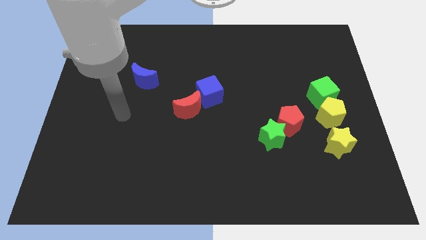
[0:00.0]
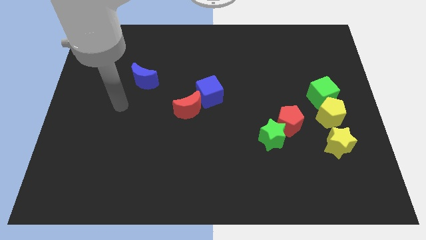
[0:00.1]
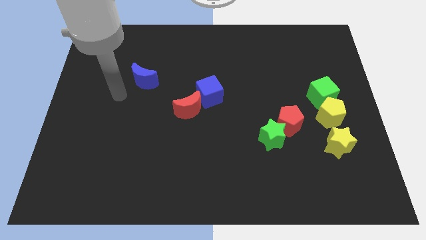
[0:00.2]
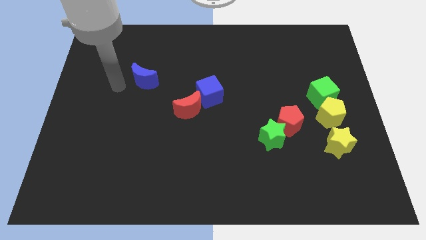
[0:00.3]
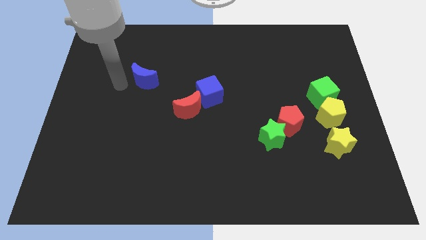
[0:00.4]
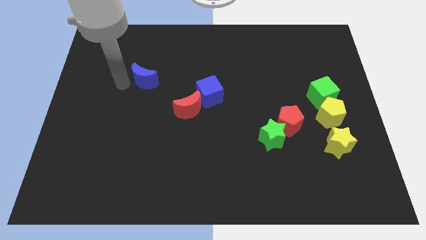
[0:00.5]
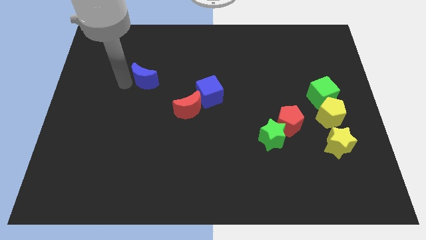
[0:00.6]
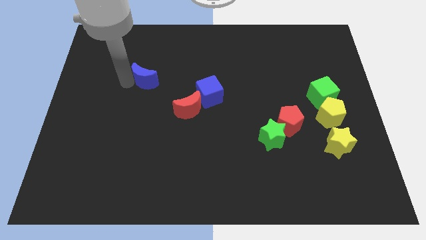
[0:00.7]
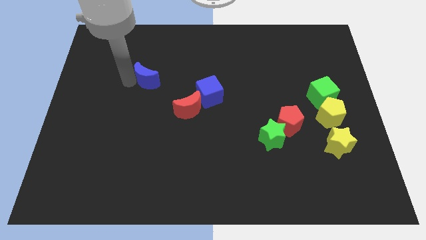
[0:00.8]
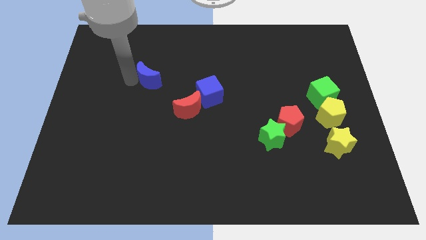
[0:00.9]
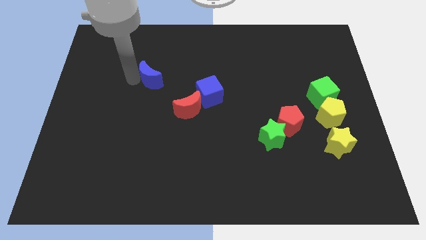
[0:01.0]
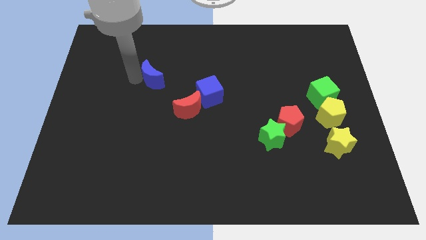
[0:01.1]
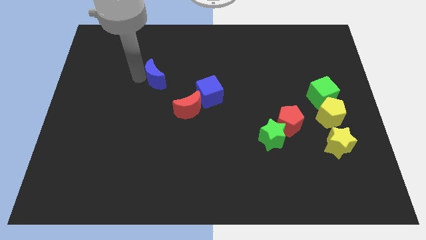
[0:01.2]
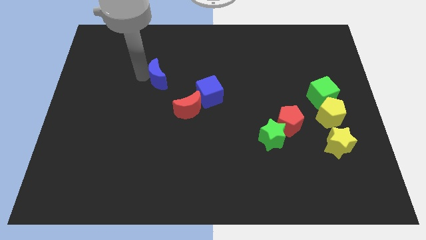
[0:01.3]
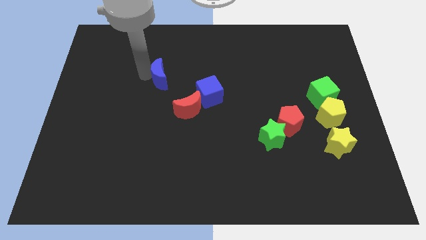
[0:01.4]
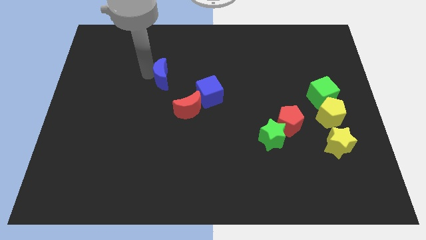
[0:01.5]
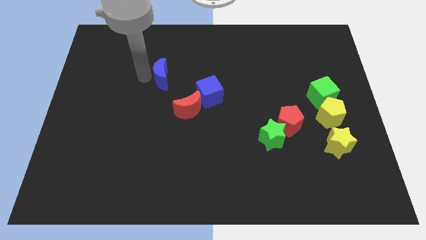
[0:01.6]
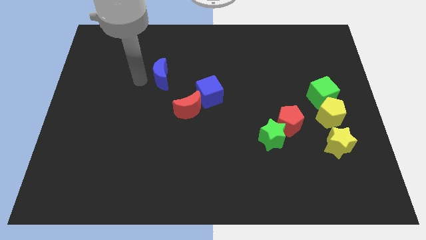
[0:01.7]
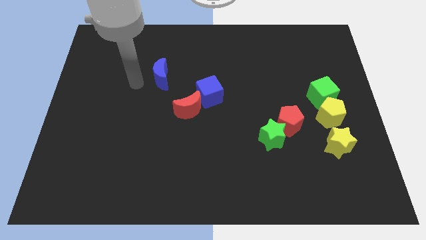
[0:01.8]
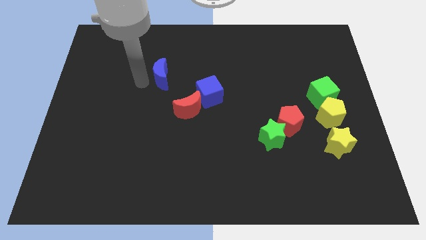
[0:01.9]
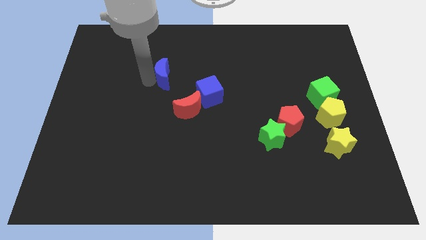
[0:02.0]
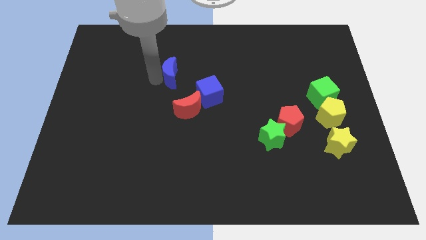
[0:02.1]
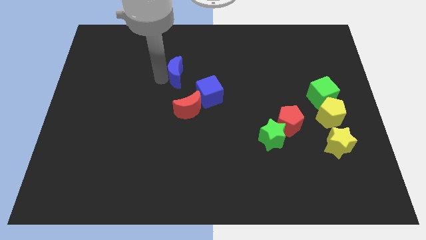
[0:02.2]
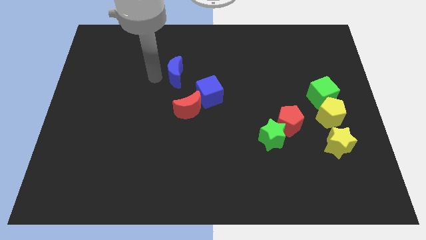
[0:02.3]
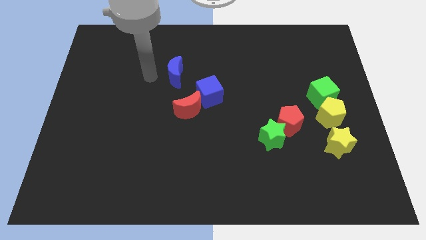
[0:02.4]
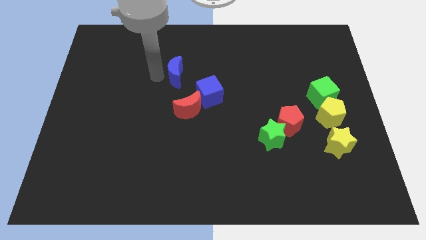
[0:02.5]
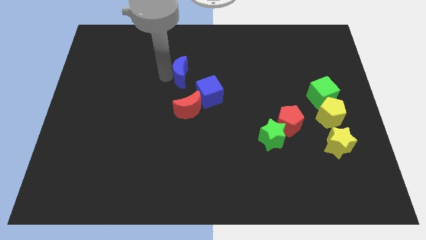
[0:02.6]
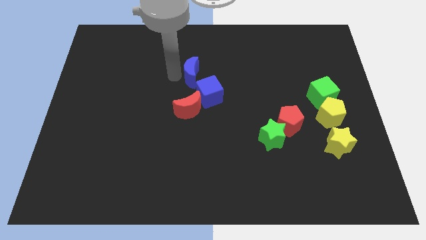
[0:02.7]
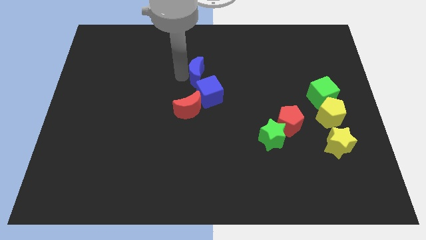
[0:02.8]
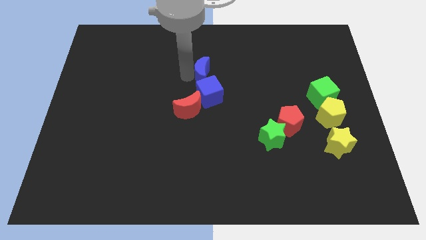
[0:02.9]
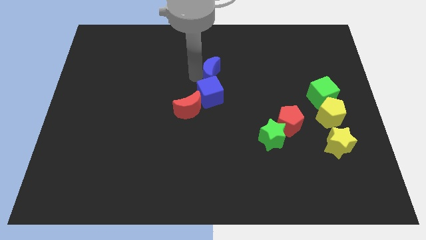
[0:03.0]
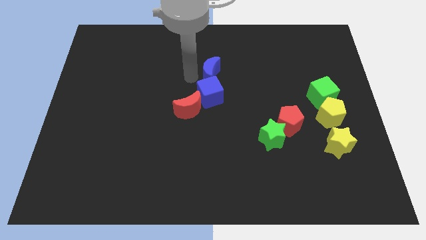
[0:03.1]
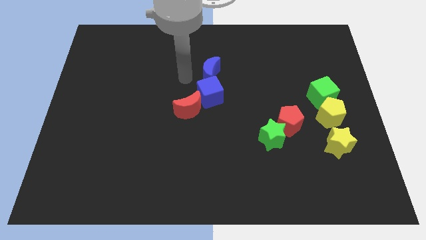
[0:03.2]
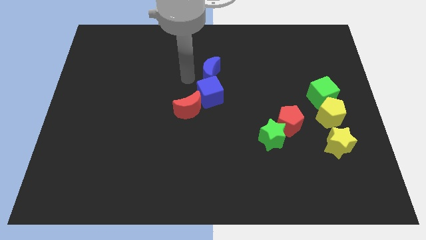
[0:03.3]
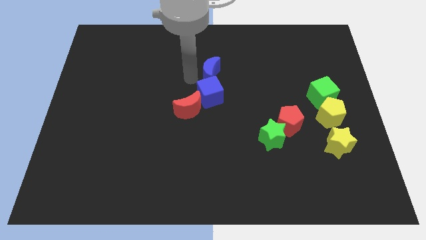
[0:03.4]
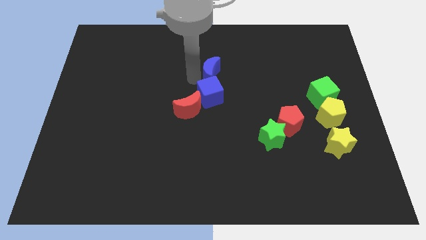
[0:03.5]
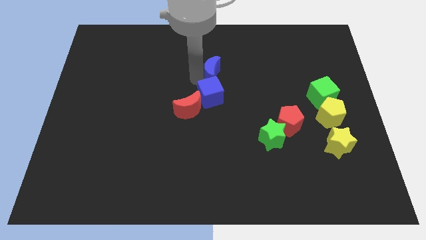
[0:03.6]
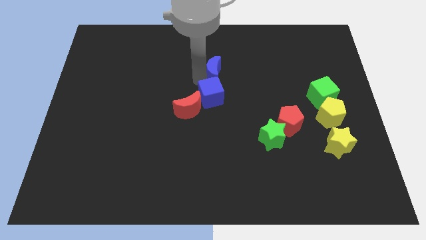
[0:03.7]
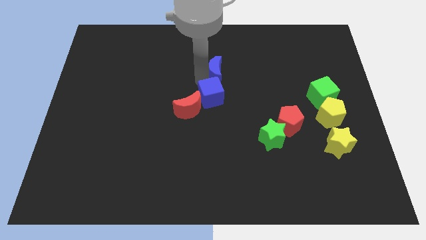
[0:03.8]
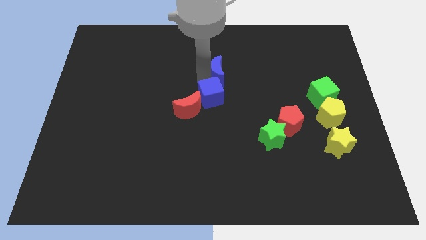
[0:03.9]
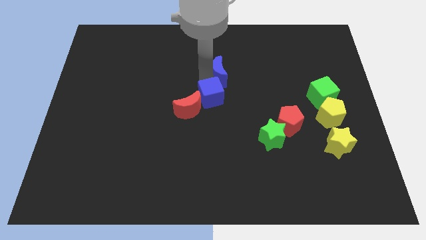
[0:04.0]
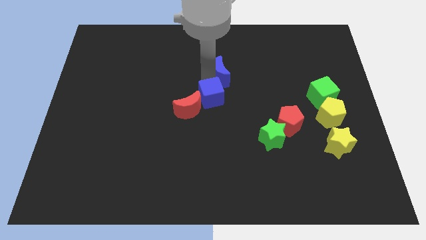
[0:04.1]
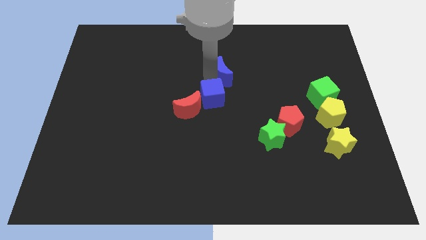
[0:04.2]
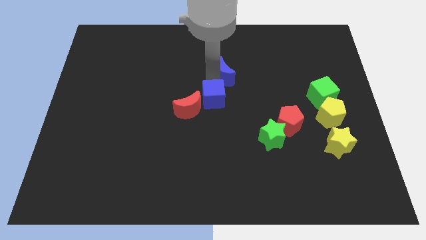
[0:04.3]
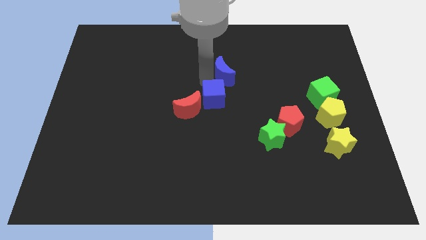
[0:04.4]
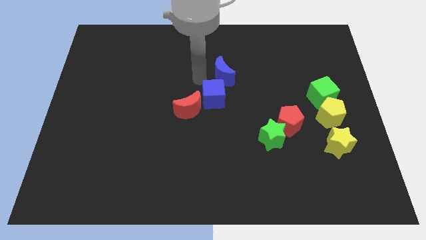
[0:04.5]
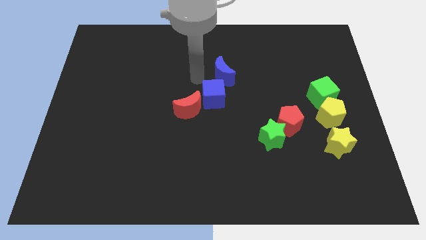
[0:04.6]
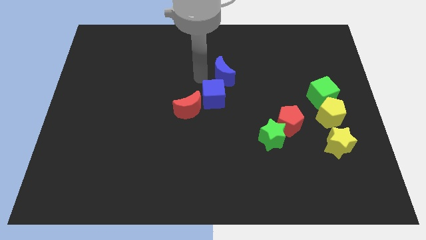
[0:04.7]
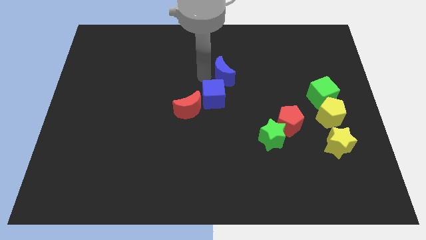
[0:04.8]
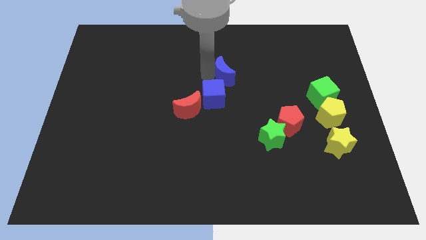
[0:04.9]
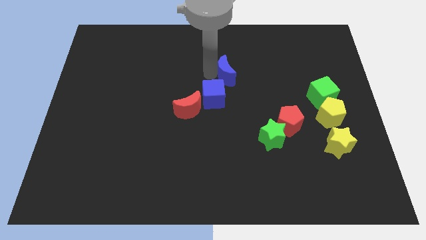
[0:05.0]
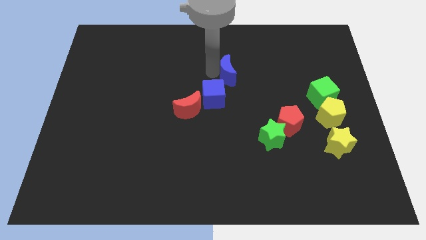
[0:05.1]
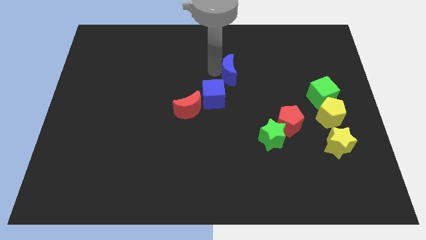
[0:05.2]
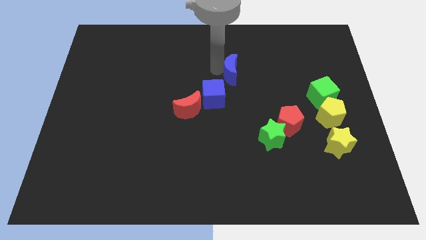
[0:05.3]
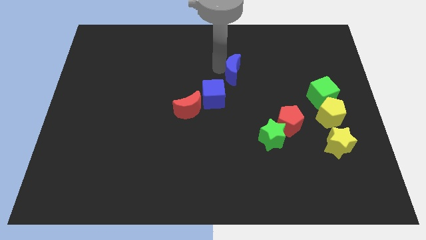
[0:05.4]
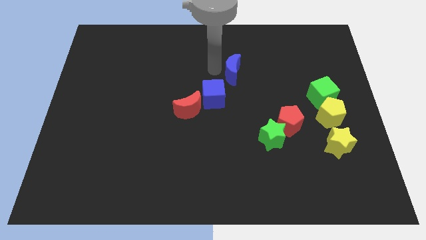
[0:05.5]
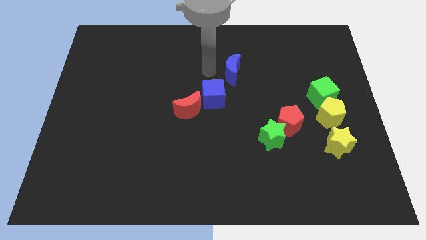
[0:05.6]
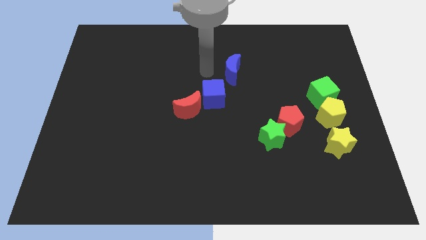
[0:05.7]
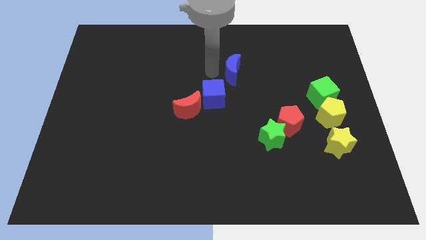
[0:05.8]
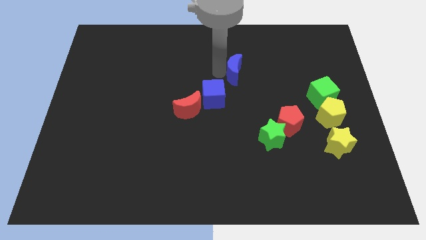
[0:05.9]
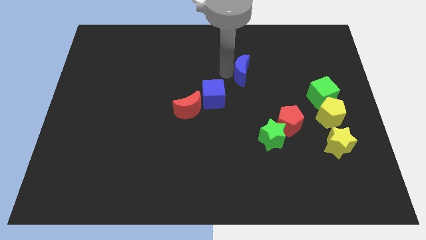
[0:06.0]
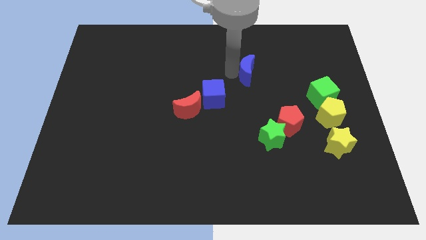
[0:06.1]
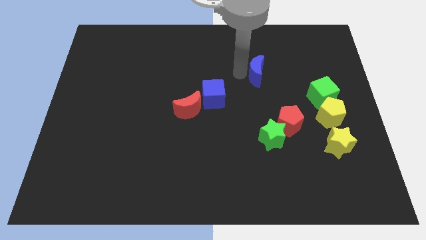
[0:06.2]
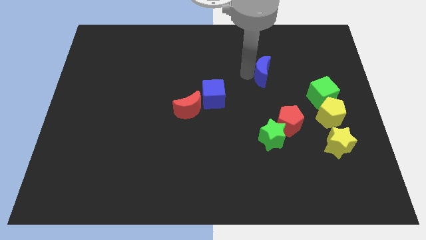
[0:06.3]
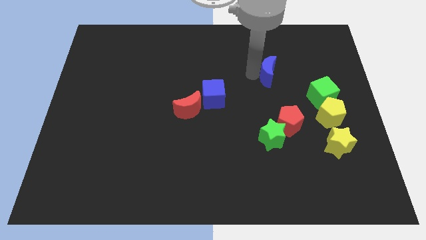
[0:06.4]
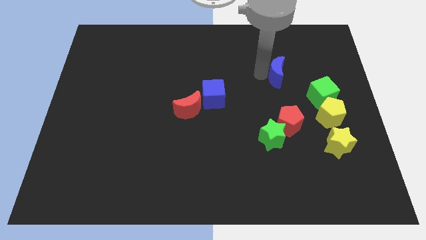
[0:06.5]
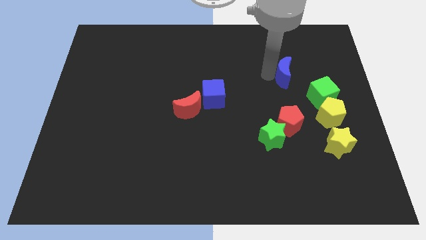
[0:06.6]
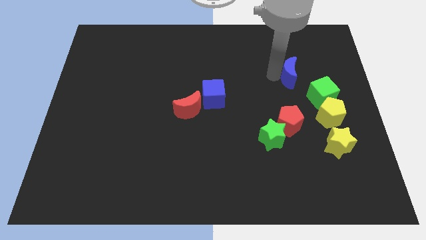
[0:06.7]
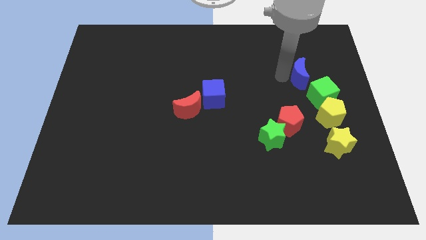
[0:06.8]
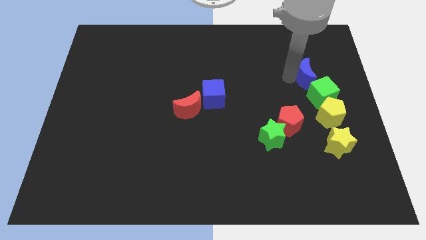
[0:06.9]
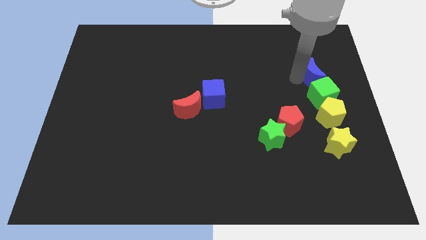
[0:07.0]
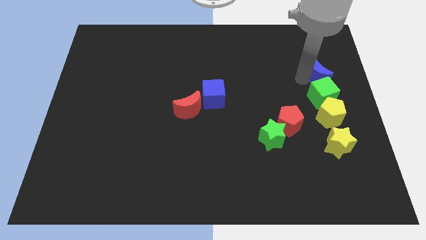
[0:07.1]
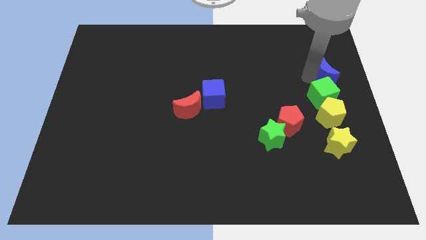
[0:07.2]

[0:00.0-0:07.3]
push the blue moon to the center right

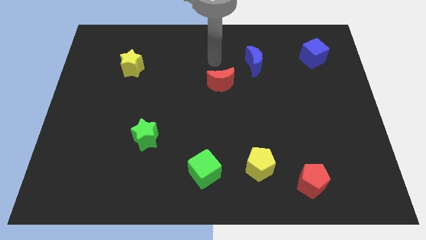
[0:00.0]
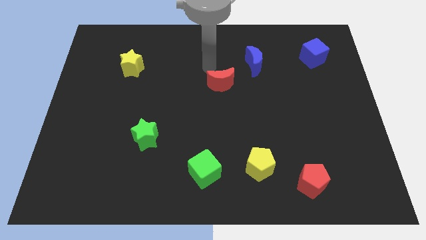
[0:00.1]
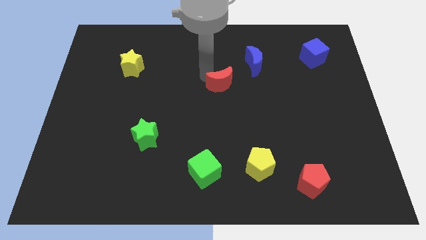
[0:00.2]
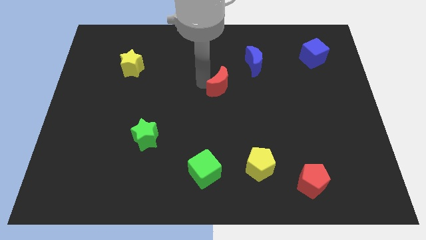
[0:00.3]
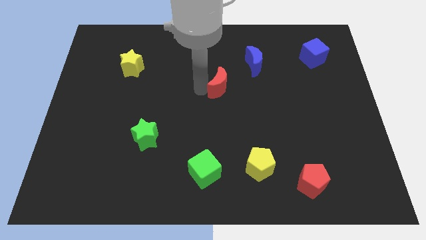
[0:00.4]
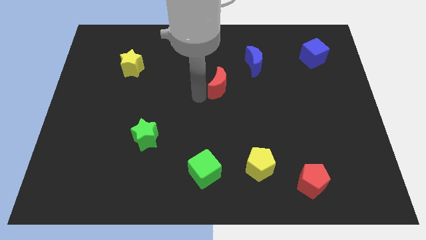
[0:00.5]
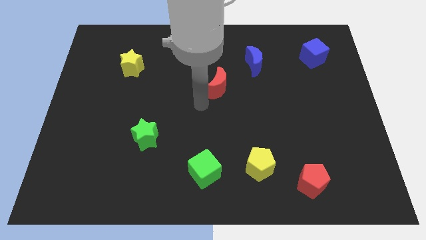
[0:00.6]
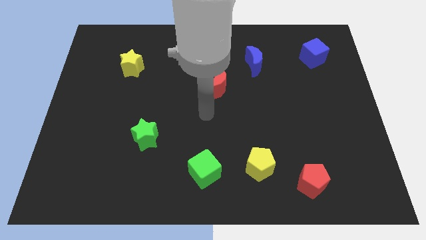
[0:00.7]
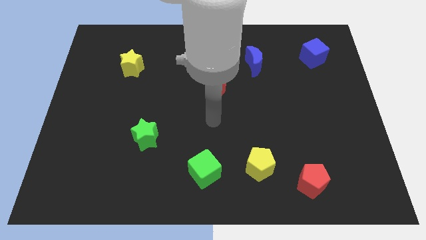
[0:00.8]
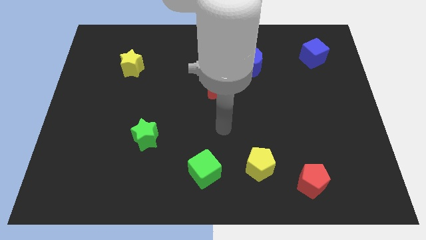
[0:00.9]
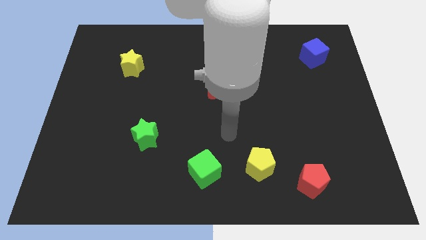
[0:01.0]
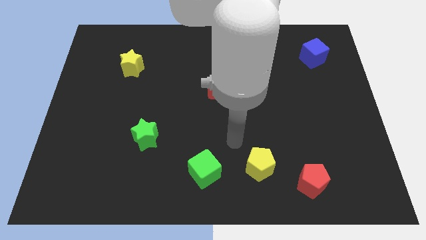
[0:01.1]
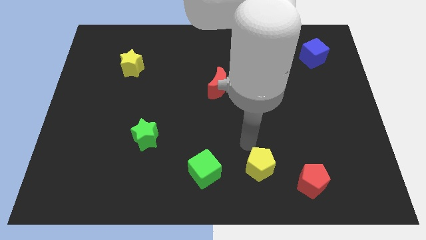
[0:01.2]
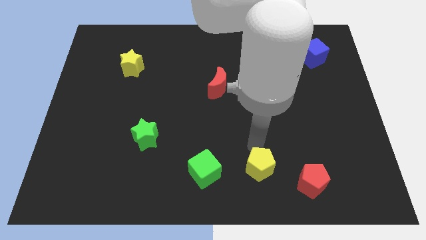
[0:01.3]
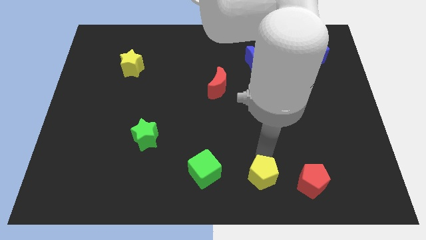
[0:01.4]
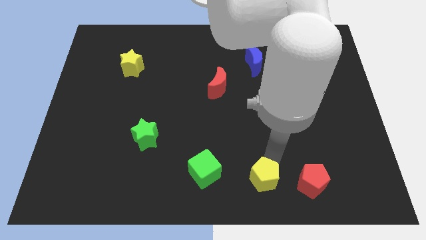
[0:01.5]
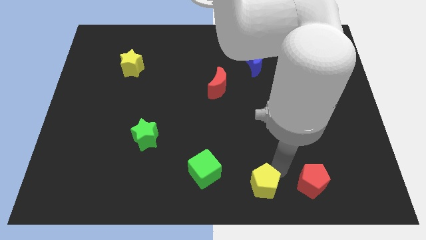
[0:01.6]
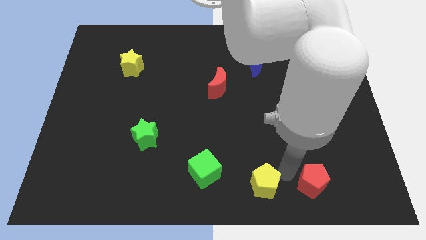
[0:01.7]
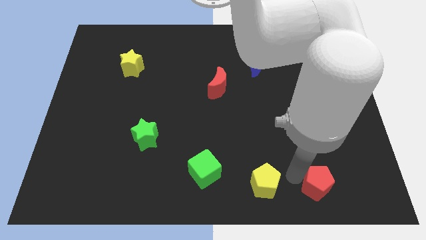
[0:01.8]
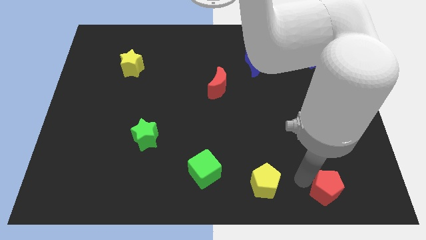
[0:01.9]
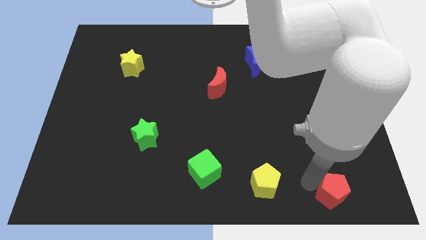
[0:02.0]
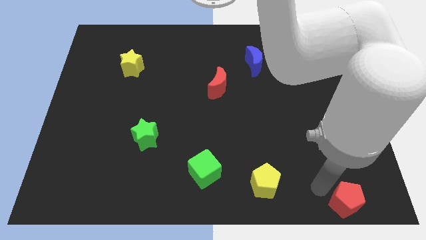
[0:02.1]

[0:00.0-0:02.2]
move the red pentagon to the bottom right
